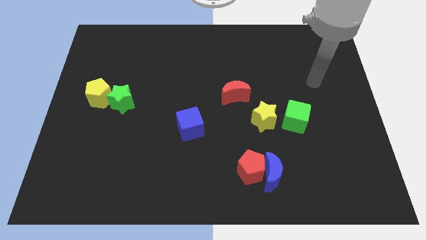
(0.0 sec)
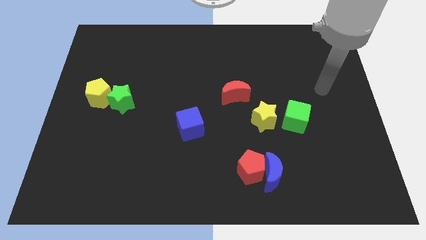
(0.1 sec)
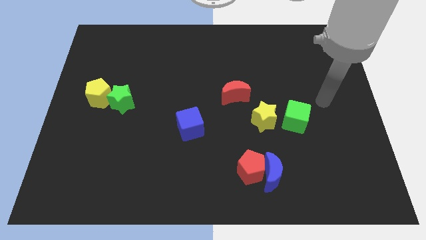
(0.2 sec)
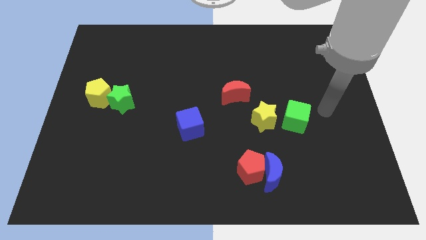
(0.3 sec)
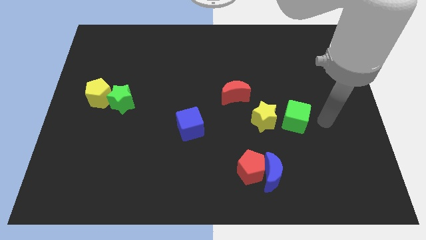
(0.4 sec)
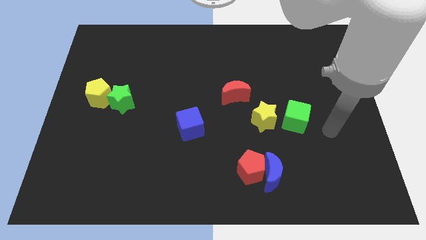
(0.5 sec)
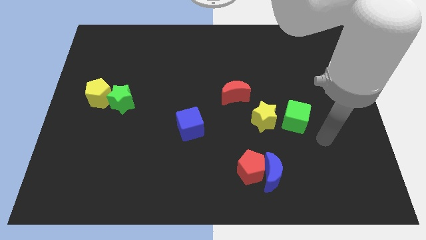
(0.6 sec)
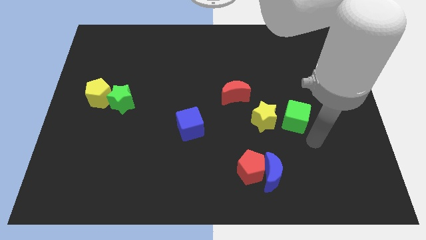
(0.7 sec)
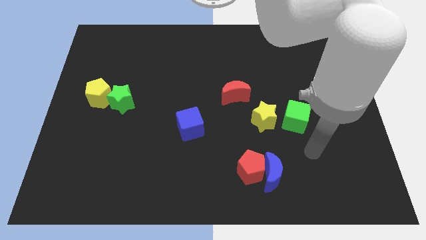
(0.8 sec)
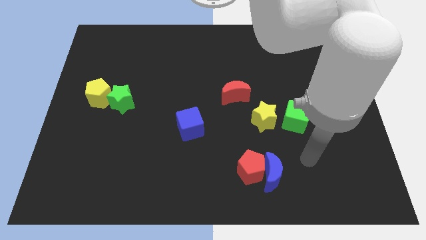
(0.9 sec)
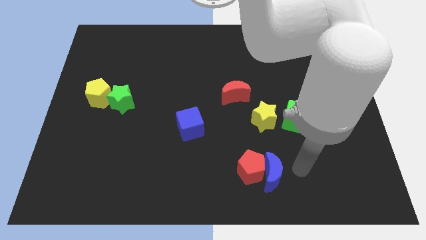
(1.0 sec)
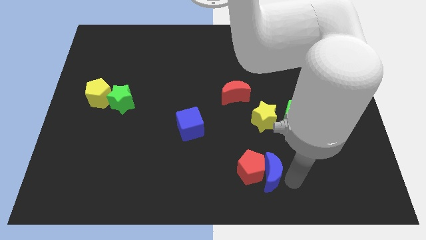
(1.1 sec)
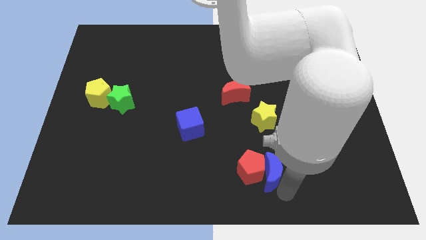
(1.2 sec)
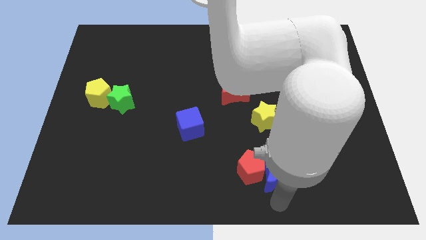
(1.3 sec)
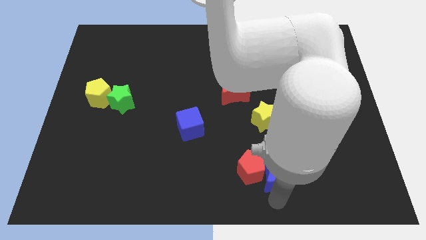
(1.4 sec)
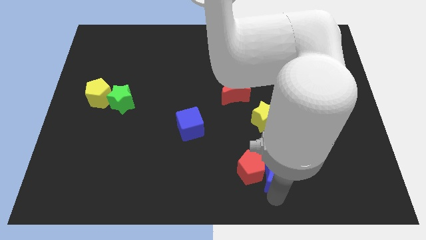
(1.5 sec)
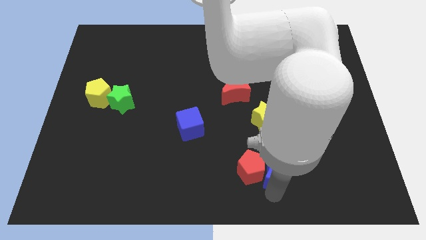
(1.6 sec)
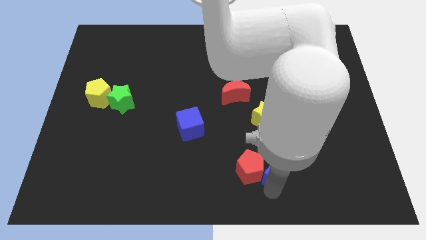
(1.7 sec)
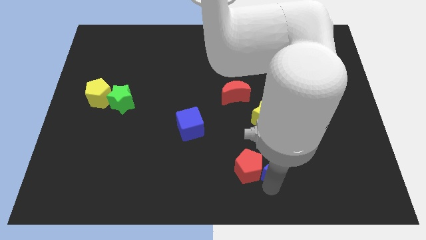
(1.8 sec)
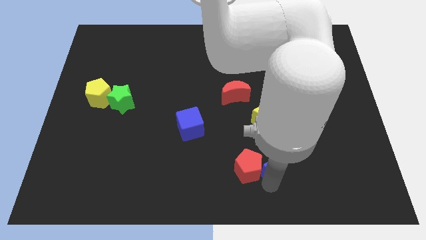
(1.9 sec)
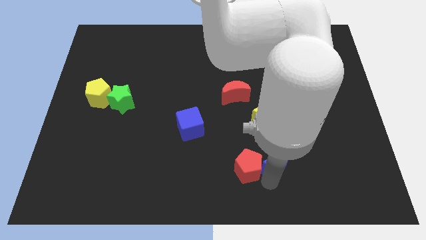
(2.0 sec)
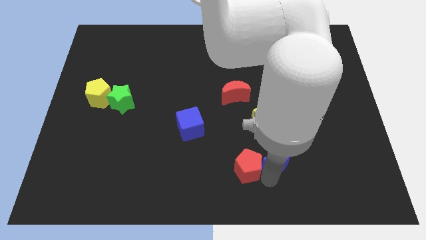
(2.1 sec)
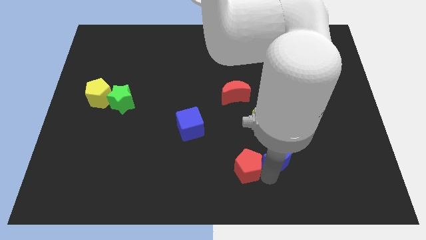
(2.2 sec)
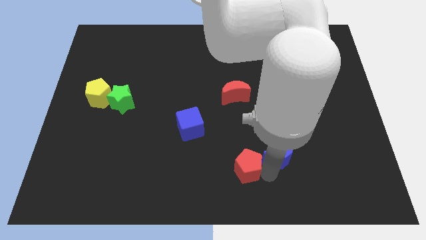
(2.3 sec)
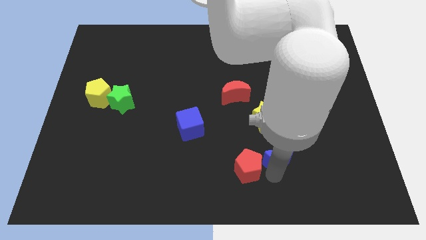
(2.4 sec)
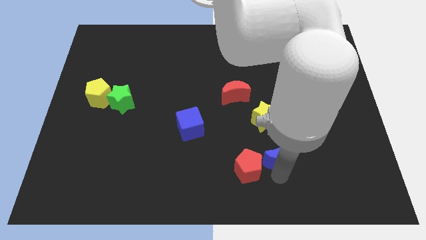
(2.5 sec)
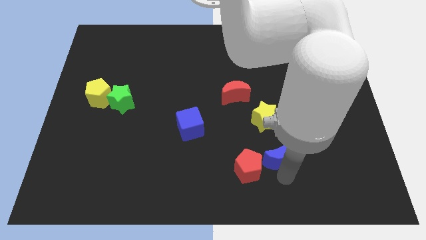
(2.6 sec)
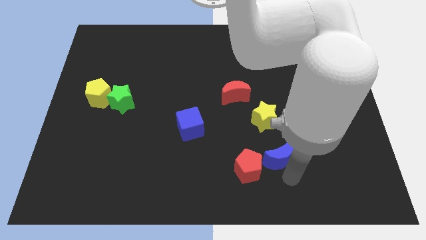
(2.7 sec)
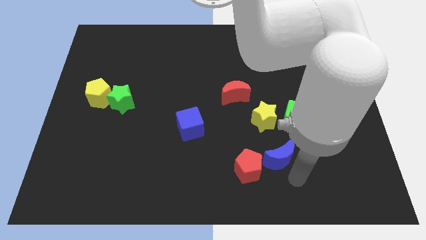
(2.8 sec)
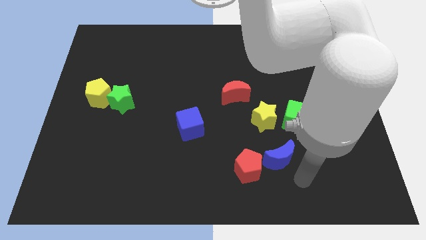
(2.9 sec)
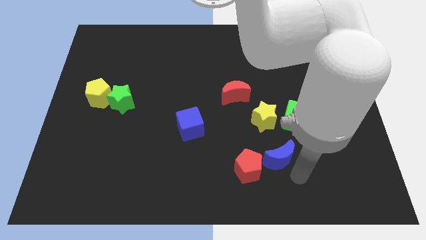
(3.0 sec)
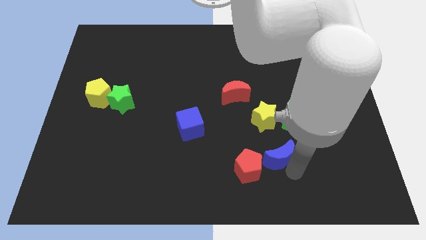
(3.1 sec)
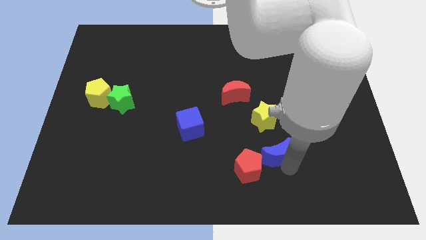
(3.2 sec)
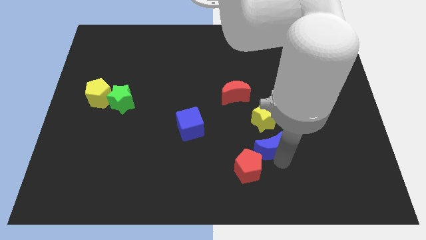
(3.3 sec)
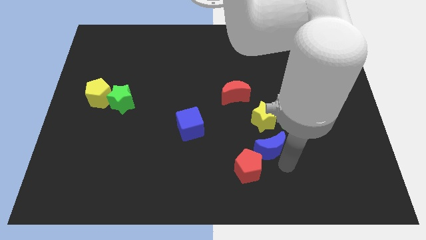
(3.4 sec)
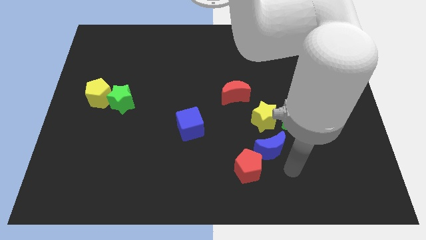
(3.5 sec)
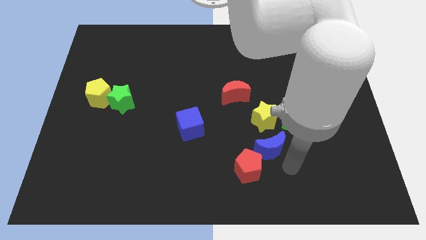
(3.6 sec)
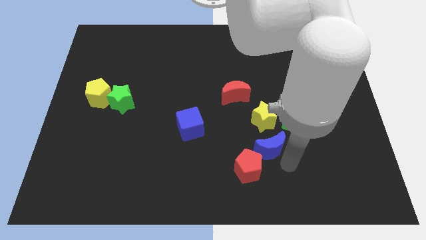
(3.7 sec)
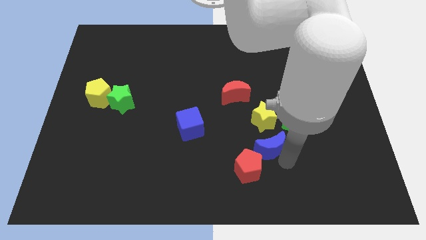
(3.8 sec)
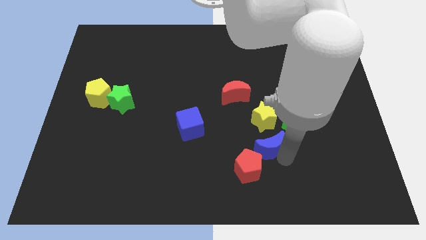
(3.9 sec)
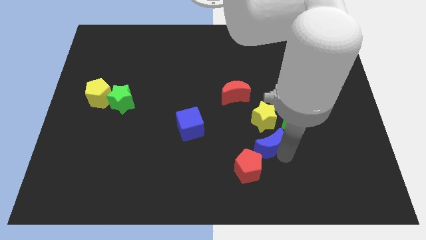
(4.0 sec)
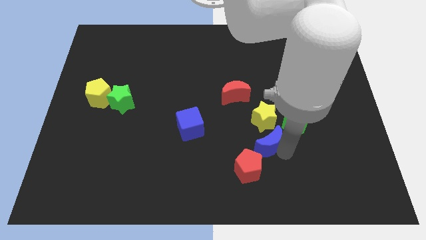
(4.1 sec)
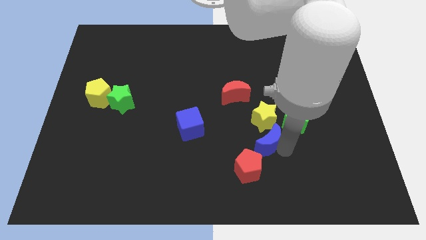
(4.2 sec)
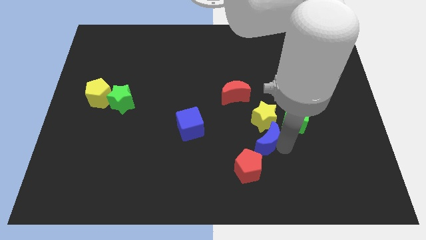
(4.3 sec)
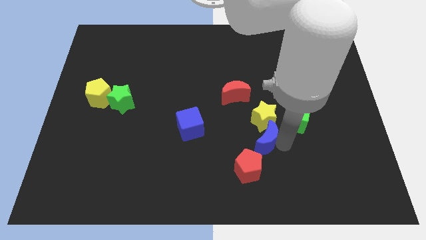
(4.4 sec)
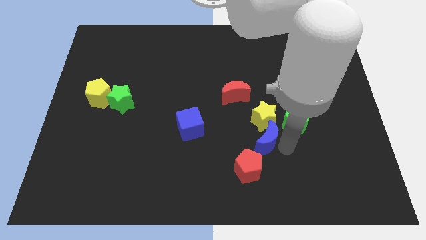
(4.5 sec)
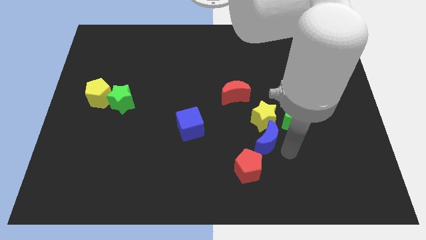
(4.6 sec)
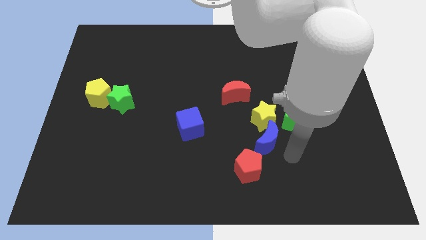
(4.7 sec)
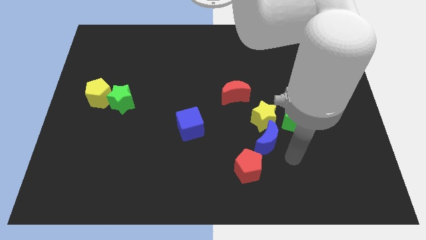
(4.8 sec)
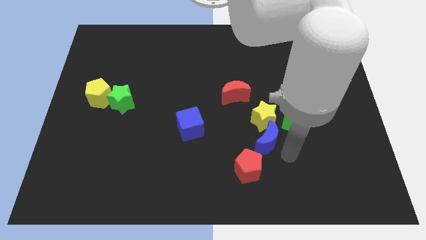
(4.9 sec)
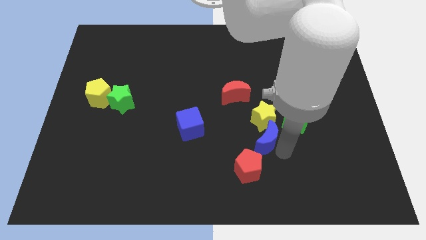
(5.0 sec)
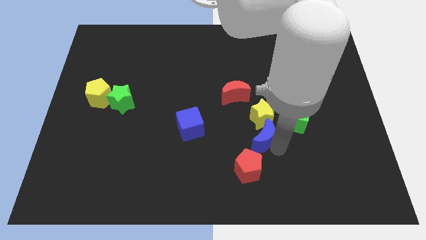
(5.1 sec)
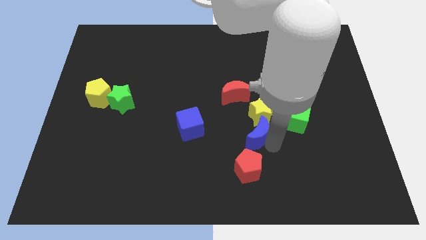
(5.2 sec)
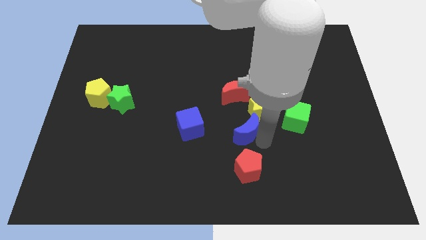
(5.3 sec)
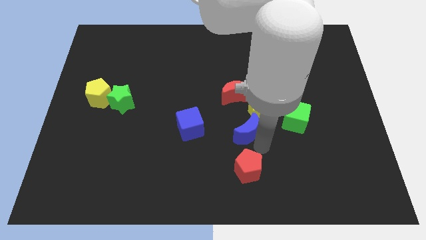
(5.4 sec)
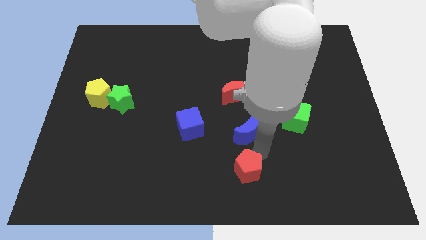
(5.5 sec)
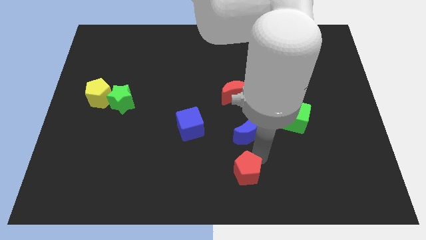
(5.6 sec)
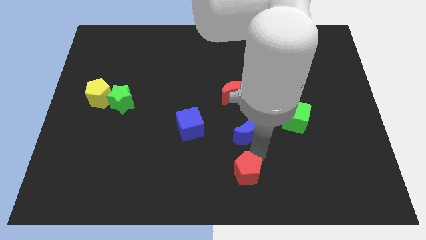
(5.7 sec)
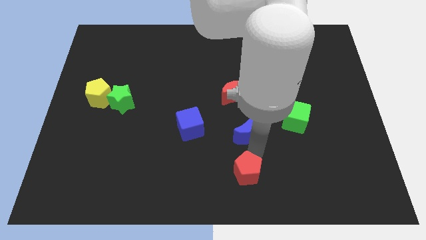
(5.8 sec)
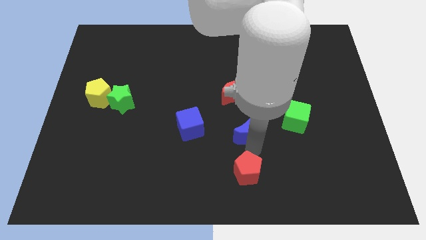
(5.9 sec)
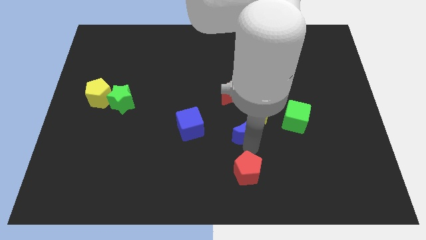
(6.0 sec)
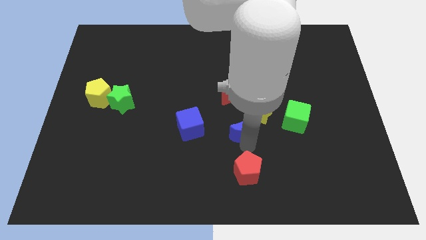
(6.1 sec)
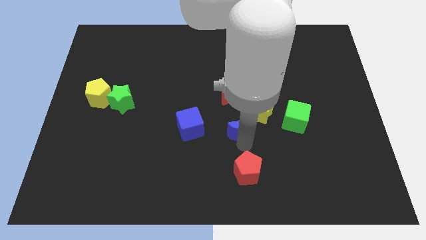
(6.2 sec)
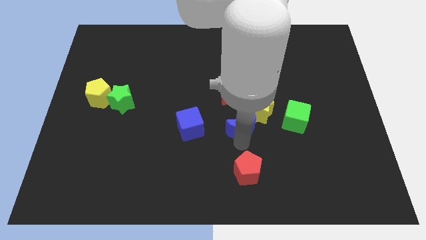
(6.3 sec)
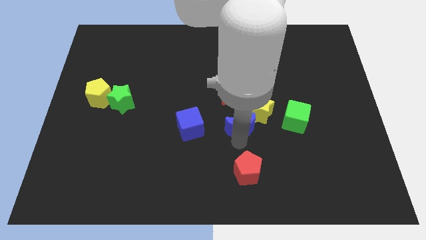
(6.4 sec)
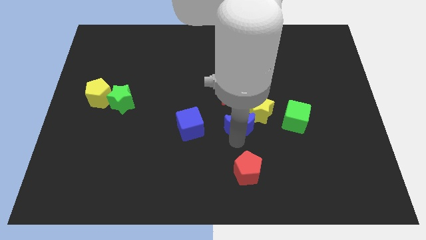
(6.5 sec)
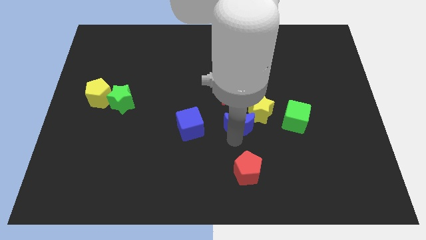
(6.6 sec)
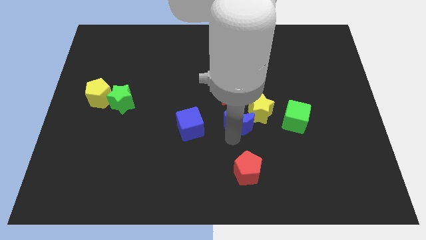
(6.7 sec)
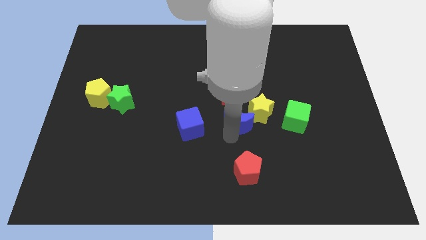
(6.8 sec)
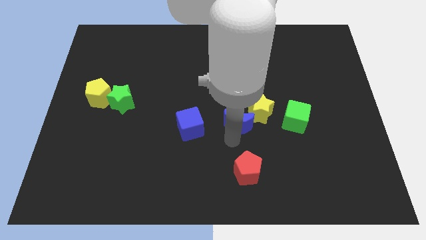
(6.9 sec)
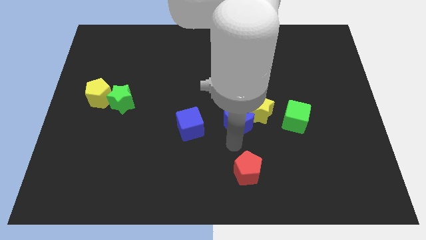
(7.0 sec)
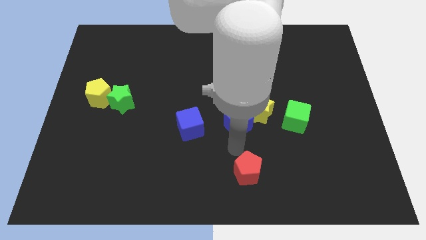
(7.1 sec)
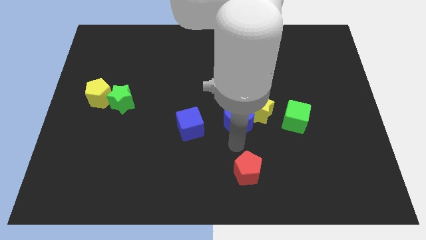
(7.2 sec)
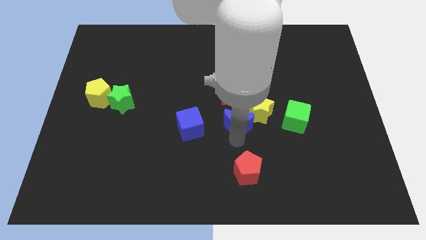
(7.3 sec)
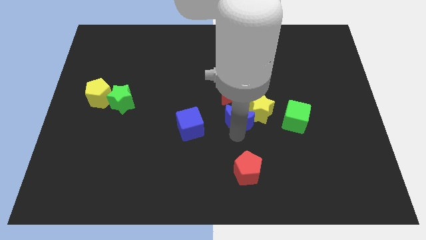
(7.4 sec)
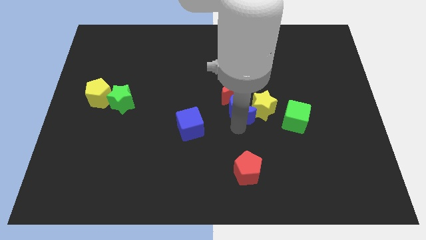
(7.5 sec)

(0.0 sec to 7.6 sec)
put the blue moon next to the red moon
